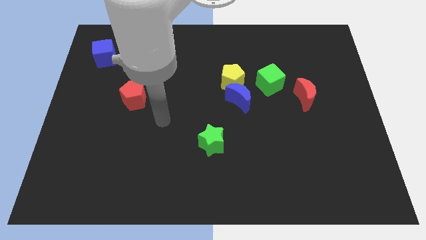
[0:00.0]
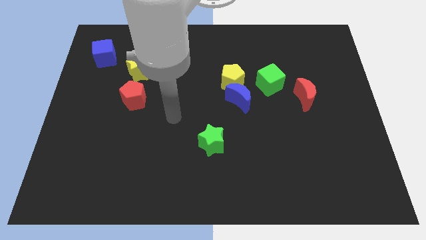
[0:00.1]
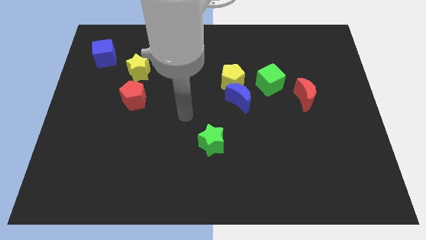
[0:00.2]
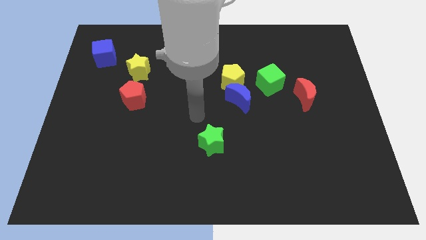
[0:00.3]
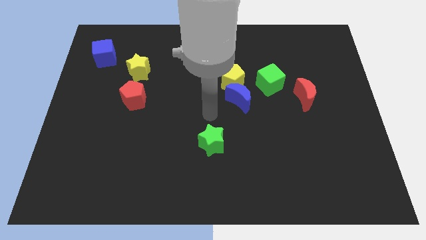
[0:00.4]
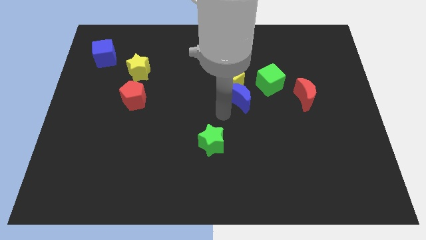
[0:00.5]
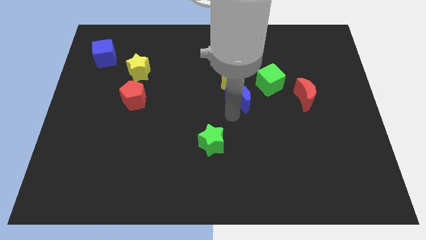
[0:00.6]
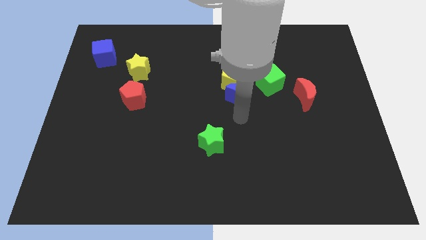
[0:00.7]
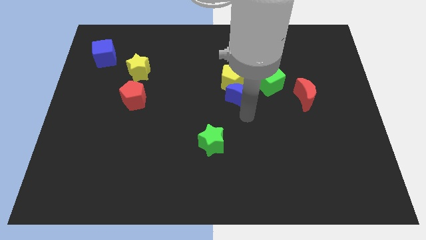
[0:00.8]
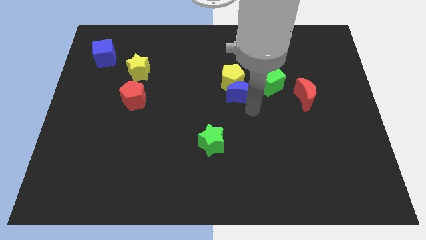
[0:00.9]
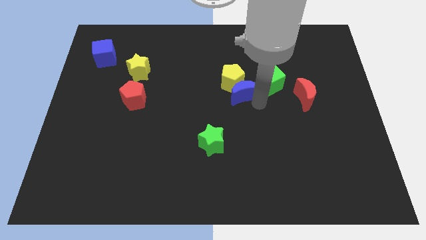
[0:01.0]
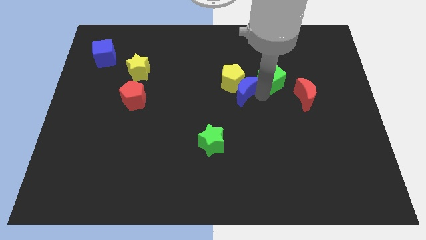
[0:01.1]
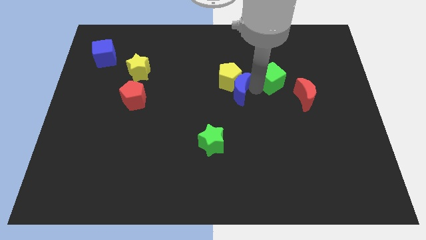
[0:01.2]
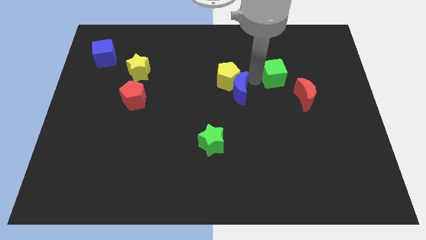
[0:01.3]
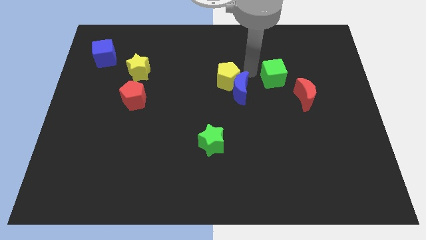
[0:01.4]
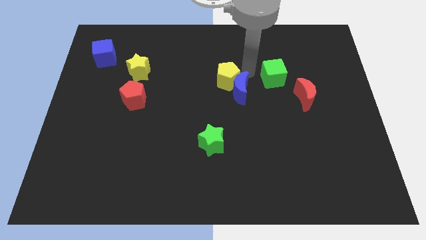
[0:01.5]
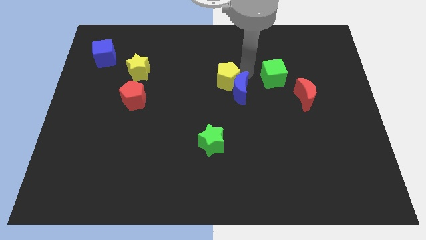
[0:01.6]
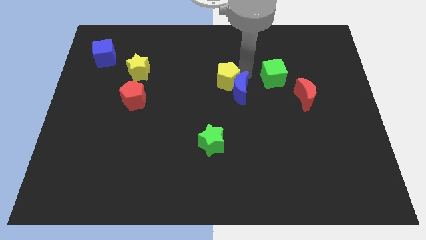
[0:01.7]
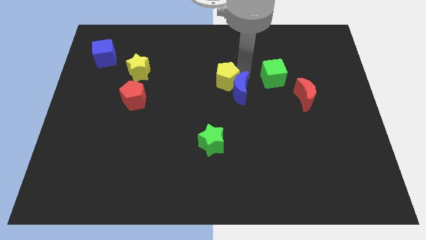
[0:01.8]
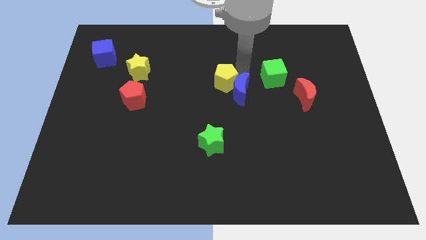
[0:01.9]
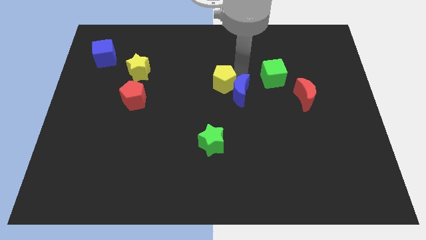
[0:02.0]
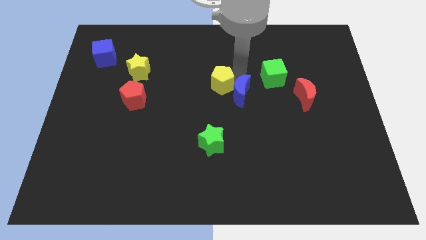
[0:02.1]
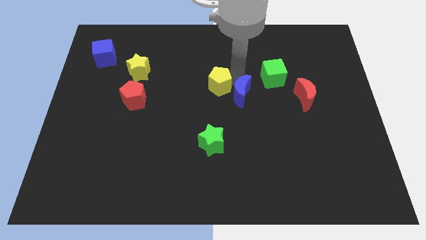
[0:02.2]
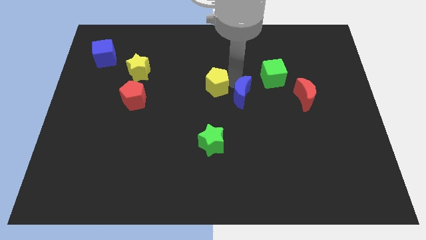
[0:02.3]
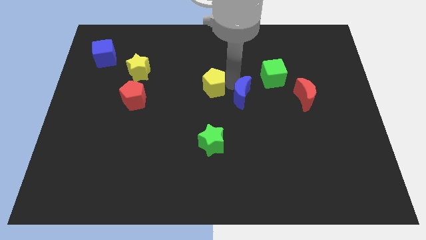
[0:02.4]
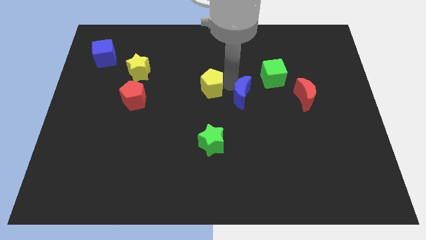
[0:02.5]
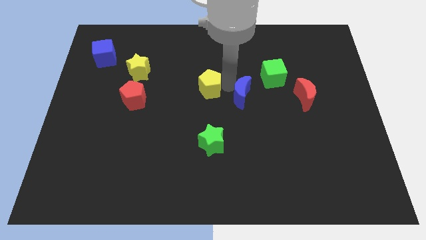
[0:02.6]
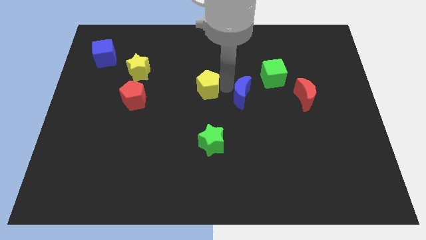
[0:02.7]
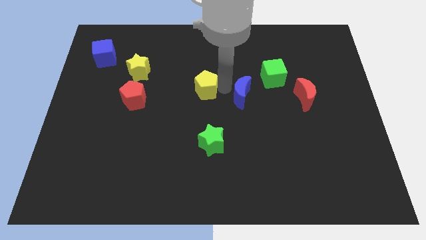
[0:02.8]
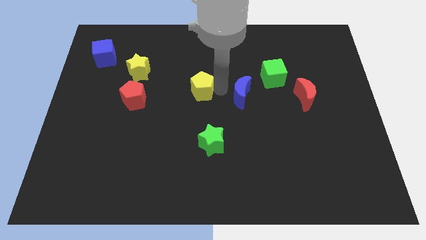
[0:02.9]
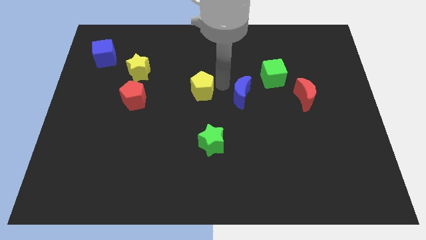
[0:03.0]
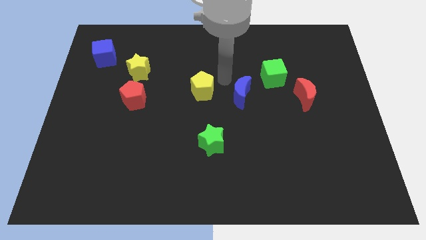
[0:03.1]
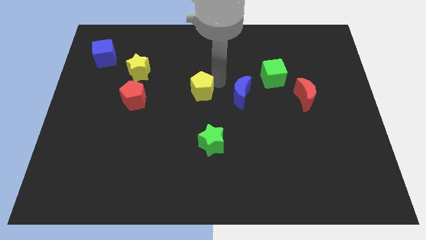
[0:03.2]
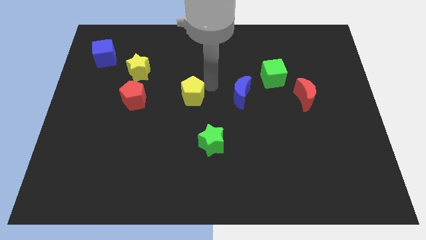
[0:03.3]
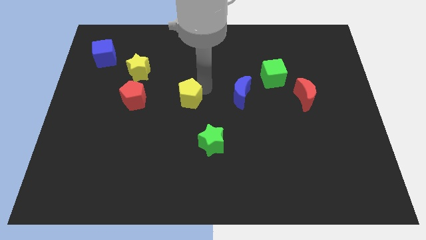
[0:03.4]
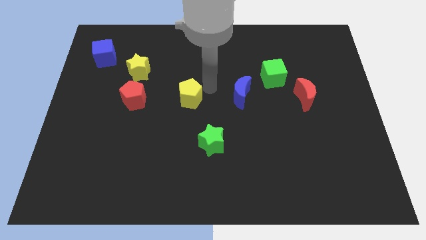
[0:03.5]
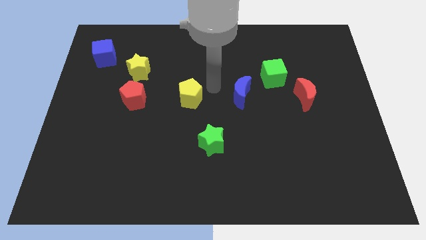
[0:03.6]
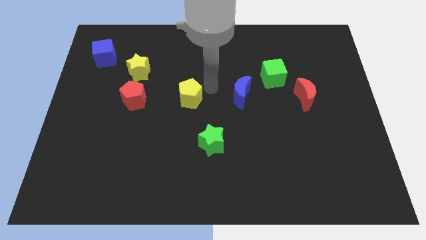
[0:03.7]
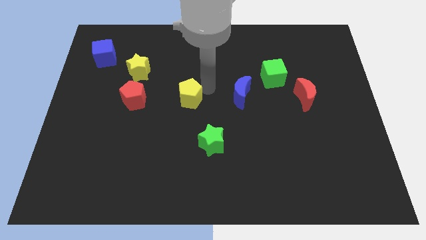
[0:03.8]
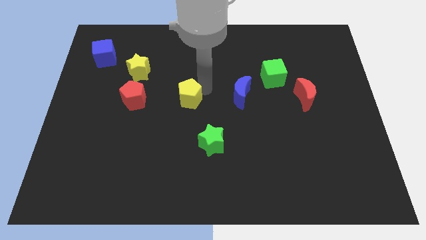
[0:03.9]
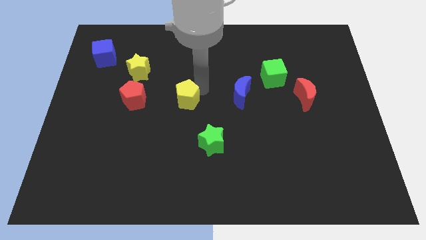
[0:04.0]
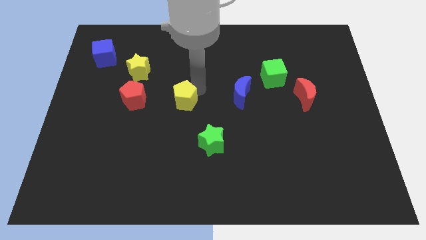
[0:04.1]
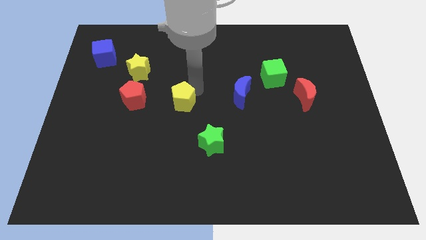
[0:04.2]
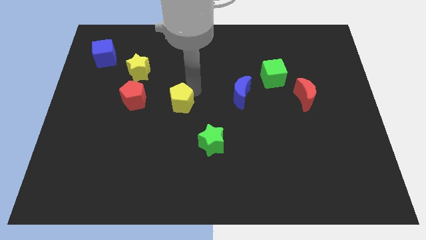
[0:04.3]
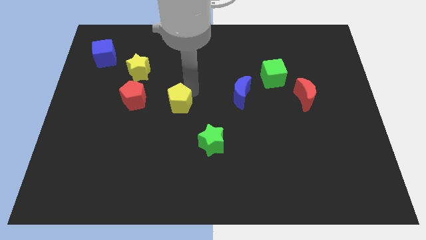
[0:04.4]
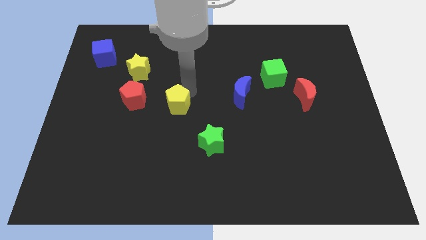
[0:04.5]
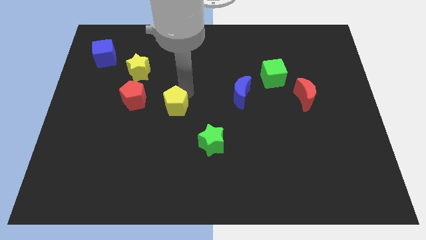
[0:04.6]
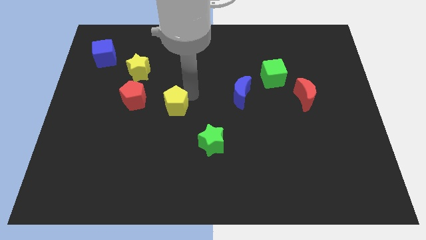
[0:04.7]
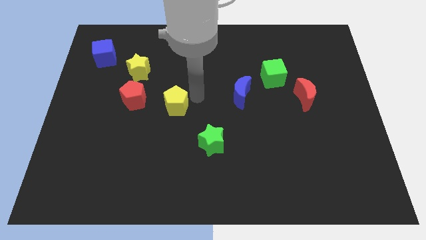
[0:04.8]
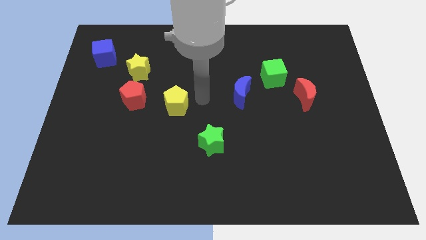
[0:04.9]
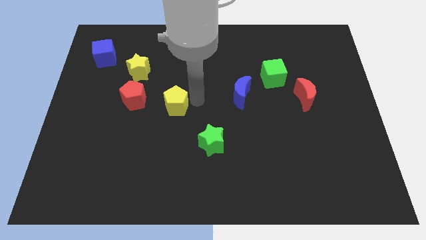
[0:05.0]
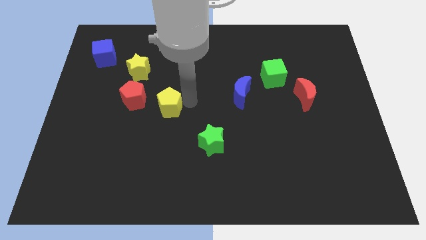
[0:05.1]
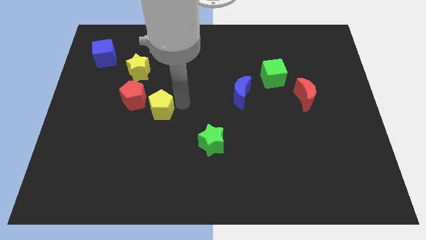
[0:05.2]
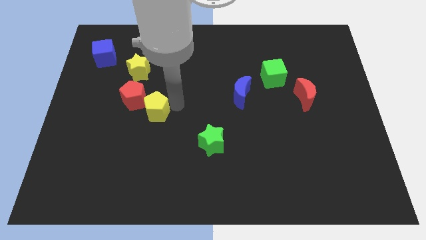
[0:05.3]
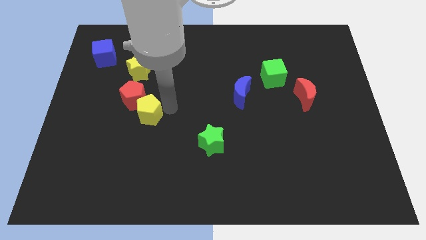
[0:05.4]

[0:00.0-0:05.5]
put the yellow pentagon to the bottom of the yellow star
